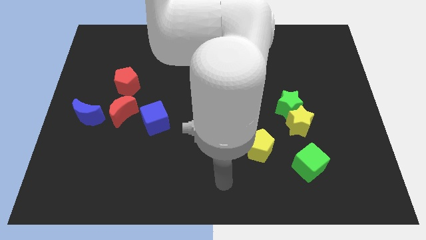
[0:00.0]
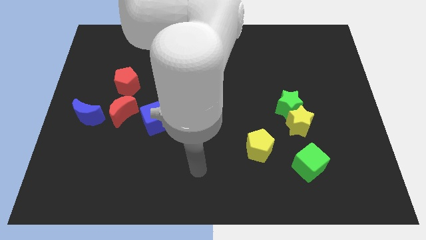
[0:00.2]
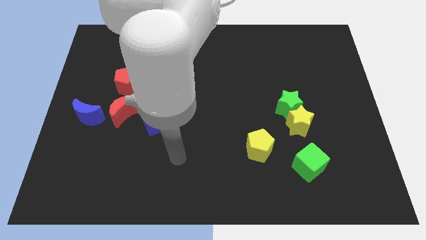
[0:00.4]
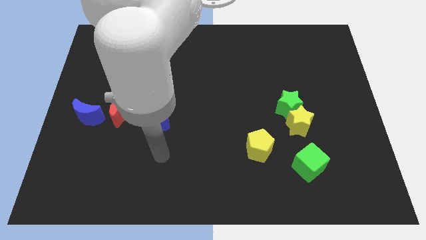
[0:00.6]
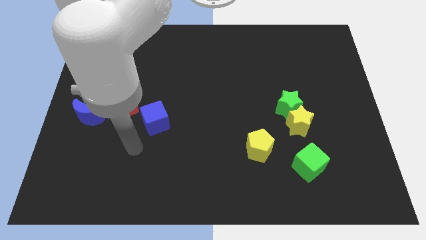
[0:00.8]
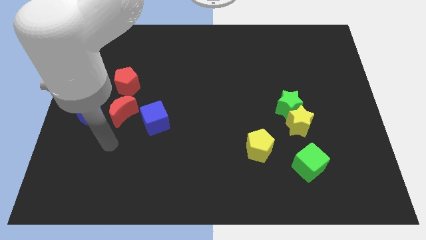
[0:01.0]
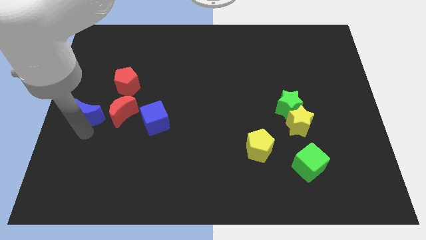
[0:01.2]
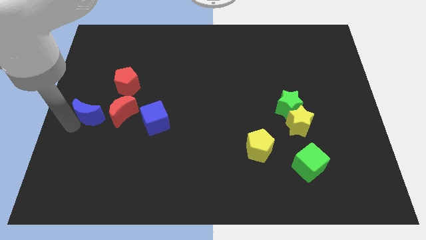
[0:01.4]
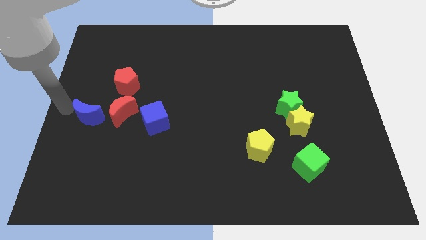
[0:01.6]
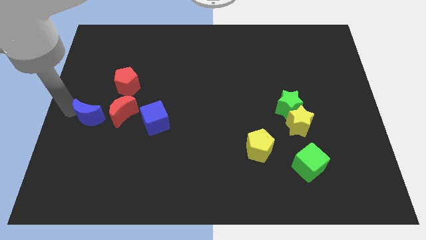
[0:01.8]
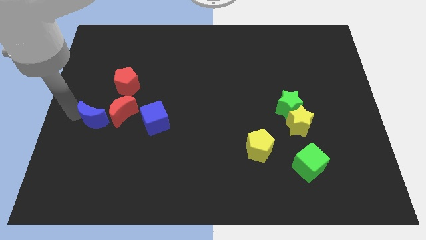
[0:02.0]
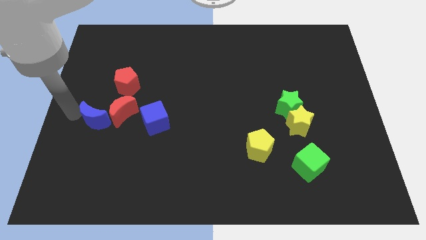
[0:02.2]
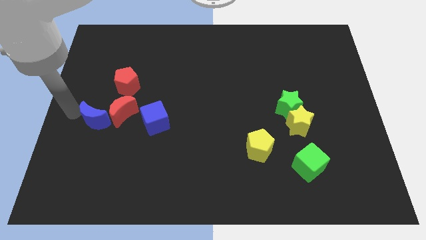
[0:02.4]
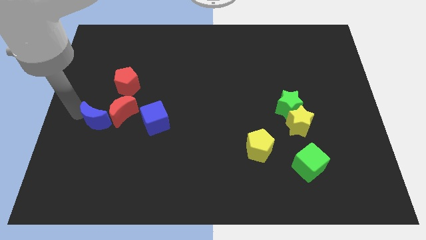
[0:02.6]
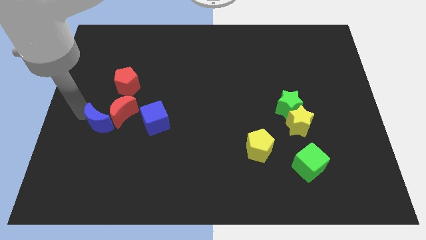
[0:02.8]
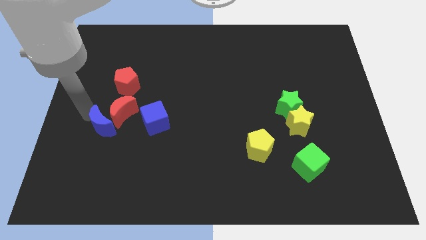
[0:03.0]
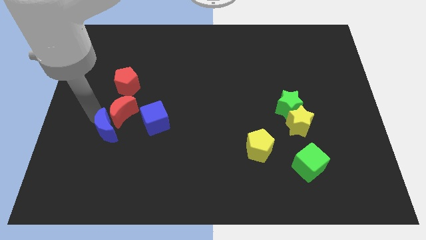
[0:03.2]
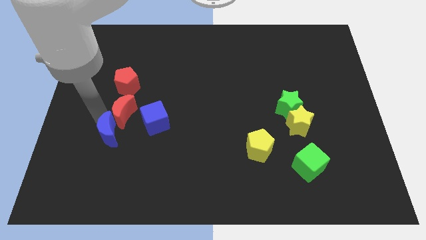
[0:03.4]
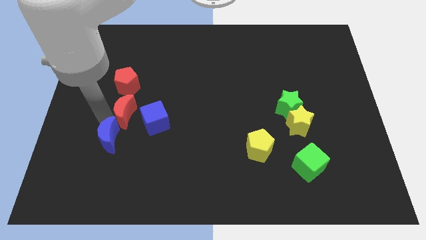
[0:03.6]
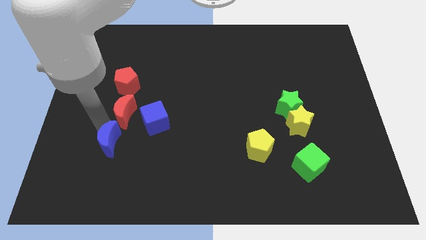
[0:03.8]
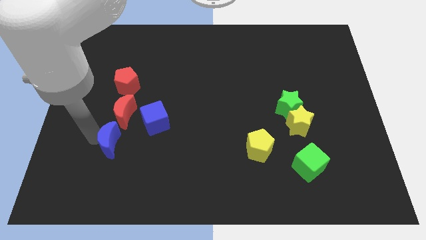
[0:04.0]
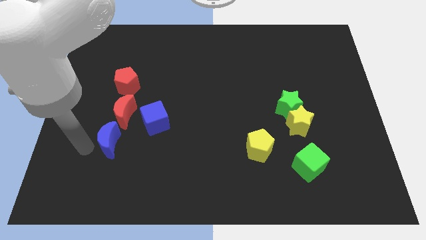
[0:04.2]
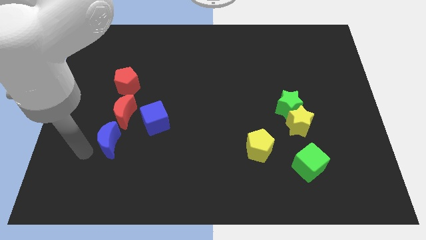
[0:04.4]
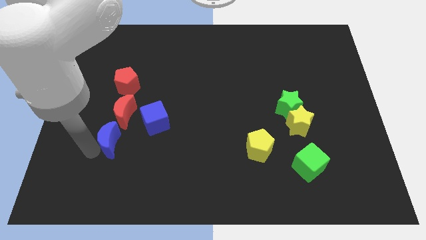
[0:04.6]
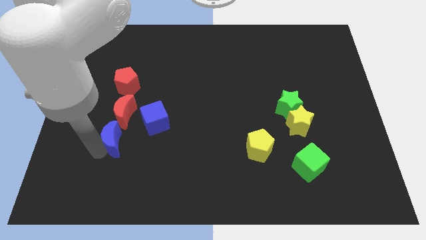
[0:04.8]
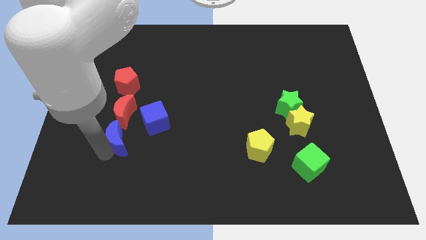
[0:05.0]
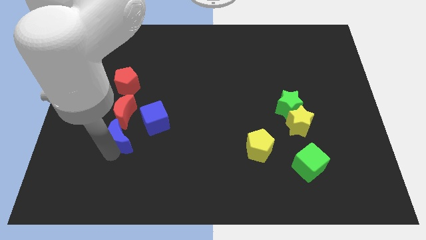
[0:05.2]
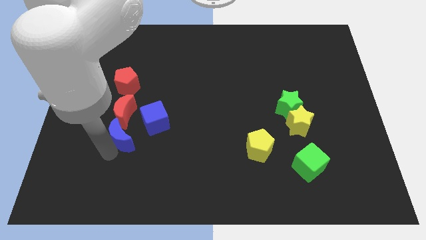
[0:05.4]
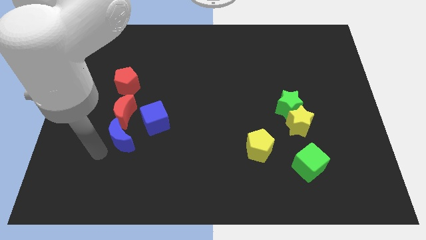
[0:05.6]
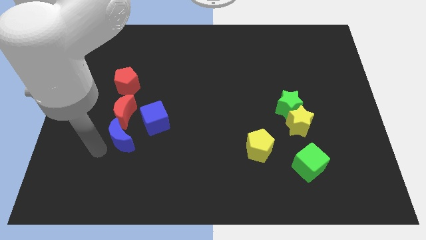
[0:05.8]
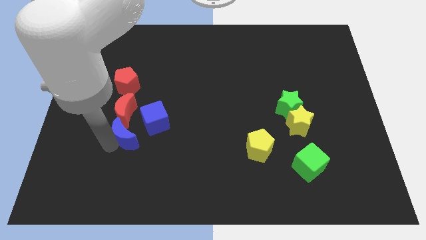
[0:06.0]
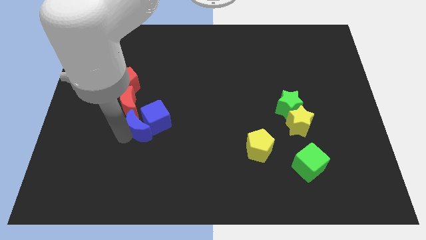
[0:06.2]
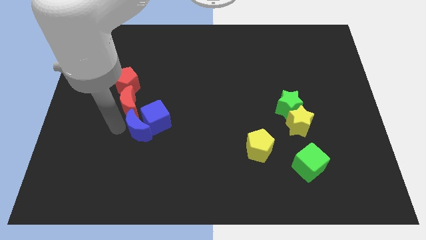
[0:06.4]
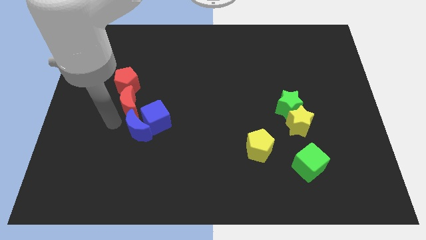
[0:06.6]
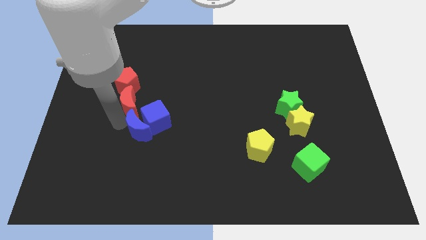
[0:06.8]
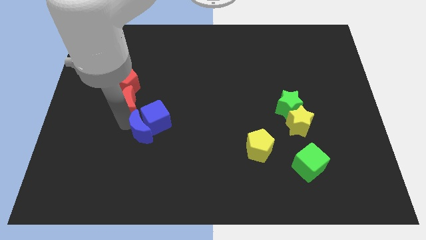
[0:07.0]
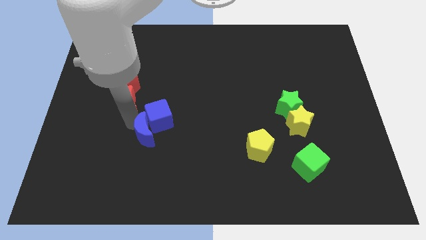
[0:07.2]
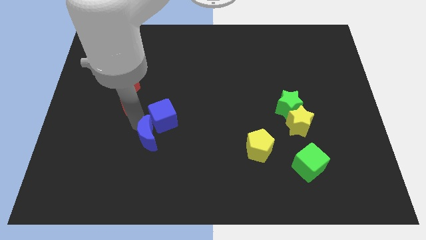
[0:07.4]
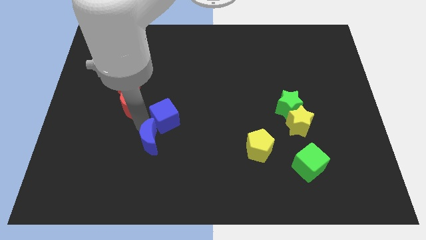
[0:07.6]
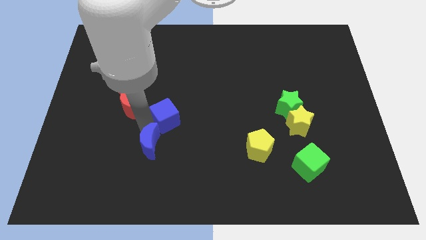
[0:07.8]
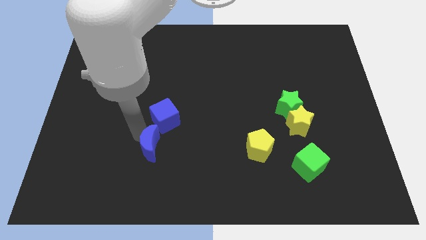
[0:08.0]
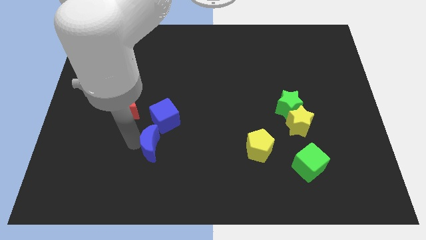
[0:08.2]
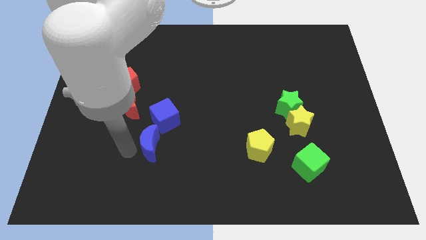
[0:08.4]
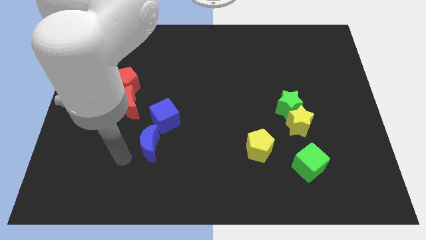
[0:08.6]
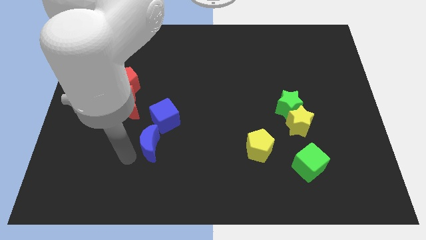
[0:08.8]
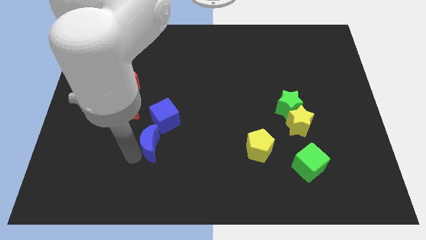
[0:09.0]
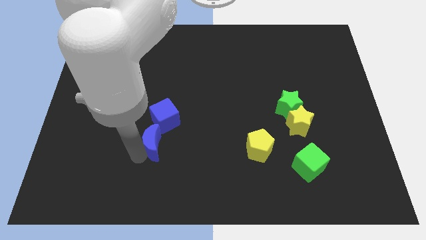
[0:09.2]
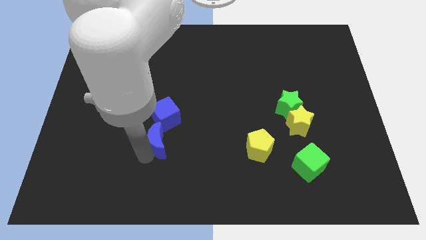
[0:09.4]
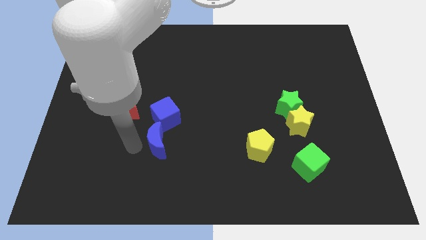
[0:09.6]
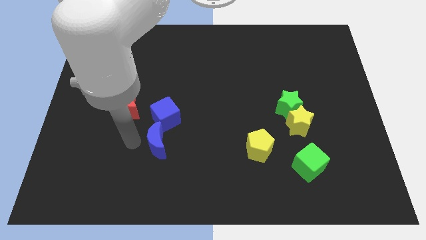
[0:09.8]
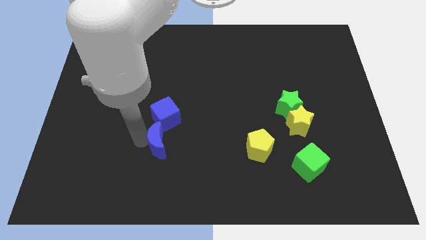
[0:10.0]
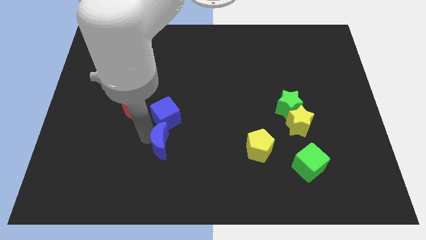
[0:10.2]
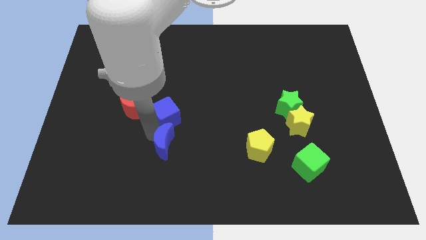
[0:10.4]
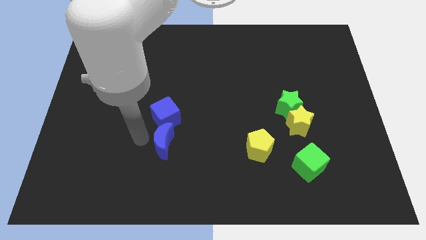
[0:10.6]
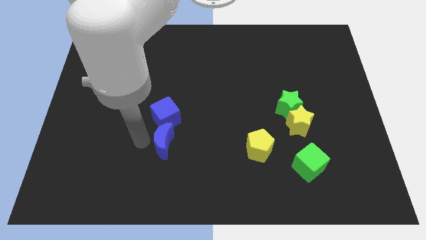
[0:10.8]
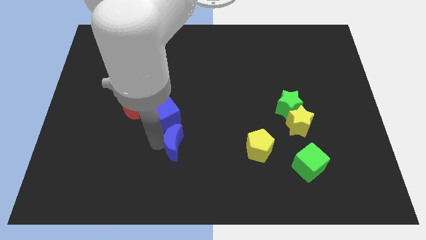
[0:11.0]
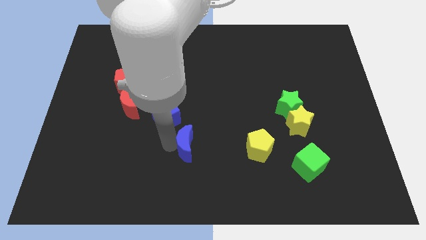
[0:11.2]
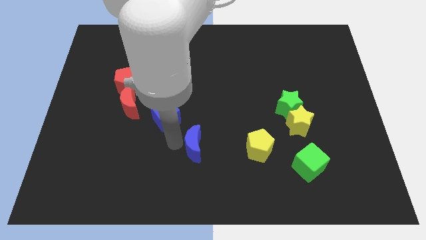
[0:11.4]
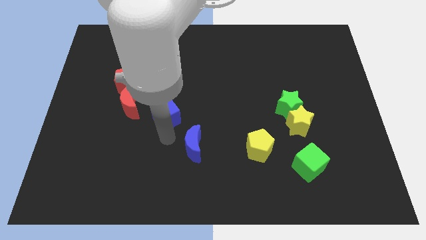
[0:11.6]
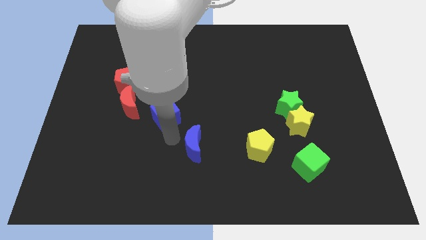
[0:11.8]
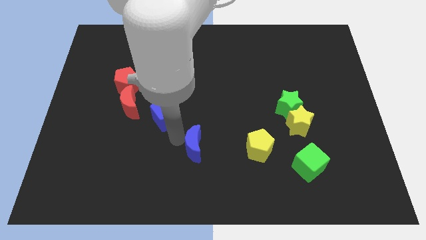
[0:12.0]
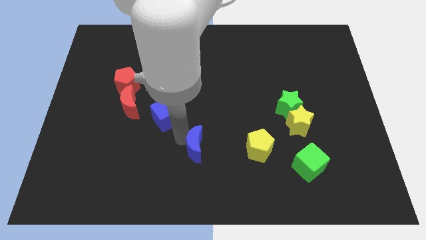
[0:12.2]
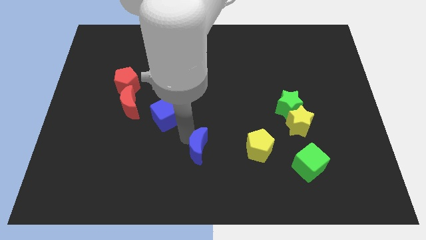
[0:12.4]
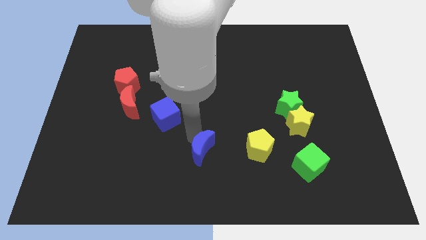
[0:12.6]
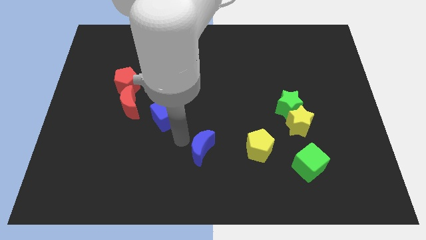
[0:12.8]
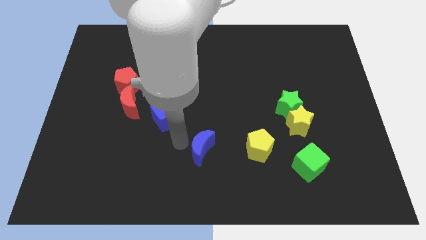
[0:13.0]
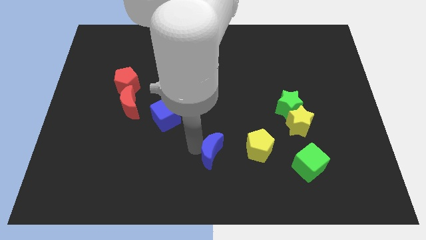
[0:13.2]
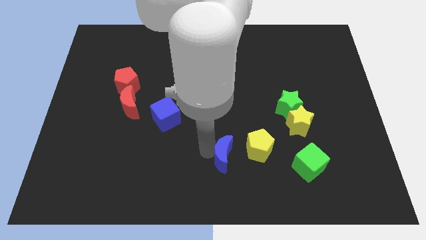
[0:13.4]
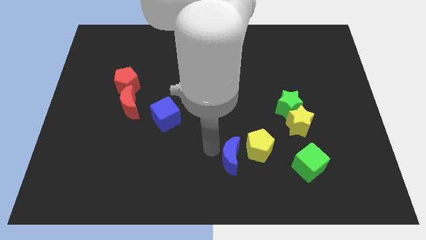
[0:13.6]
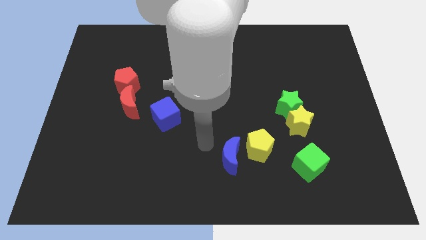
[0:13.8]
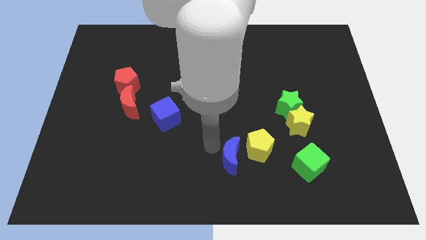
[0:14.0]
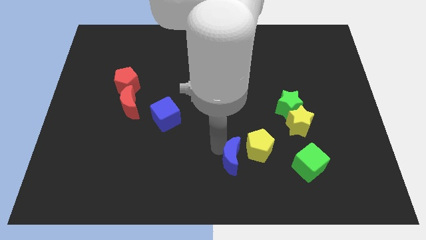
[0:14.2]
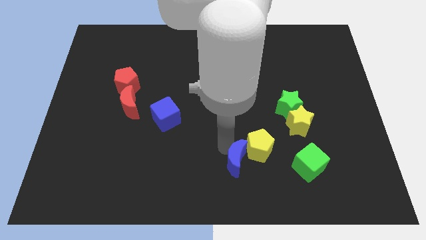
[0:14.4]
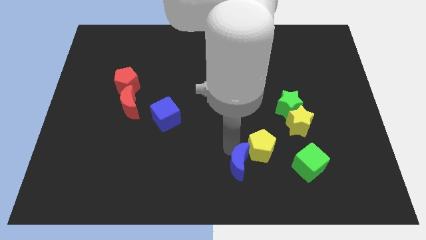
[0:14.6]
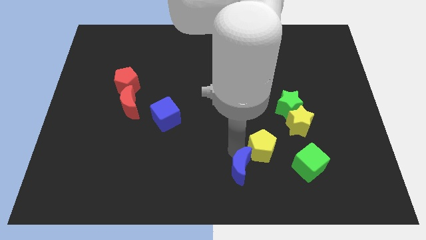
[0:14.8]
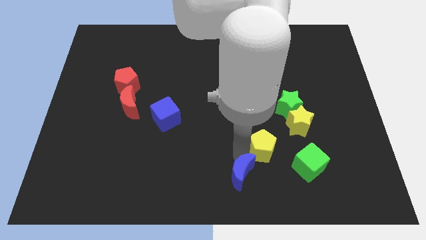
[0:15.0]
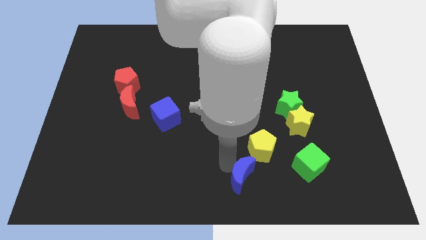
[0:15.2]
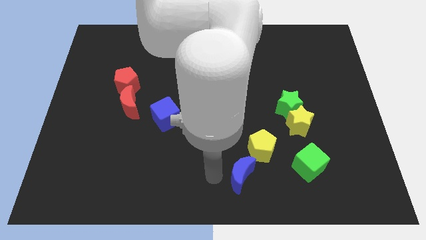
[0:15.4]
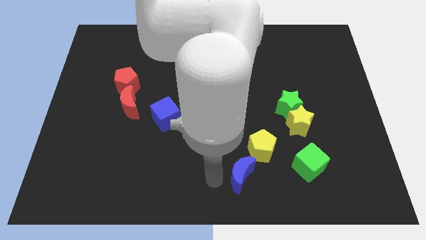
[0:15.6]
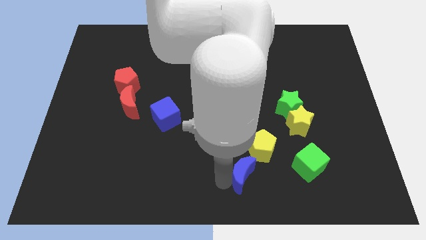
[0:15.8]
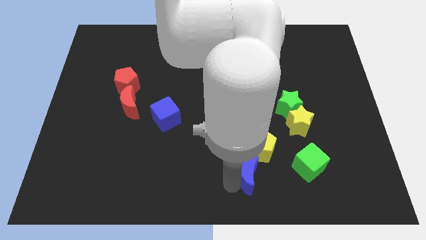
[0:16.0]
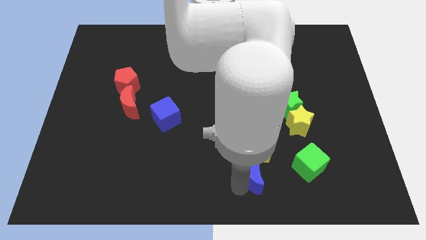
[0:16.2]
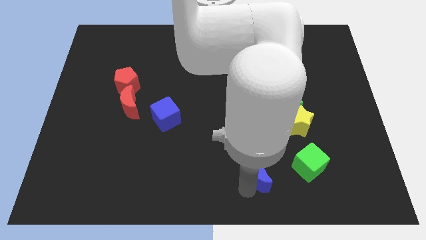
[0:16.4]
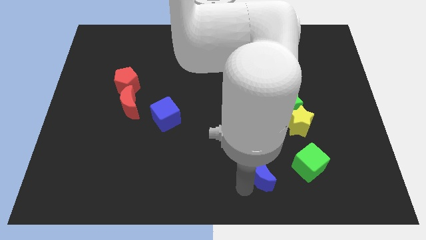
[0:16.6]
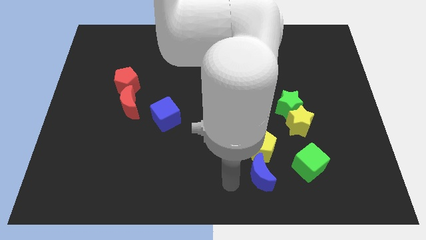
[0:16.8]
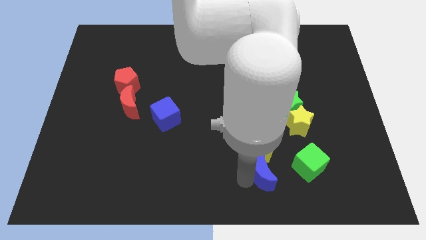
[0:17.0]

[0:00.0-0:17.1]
push the blue moon diagonally down and to the right of the yellow pentagon
